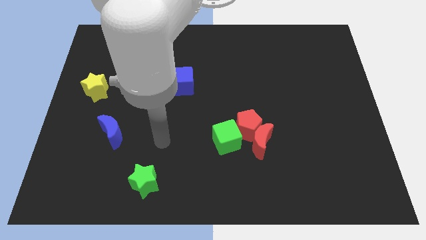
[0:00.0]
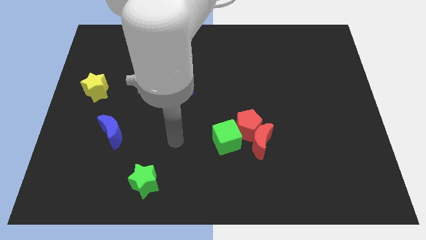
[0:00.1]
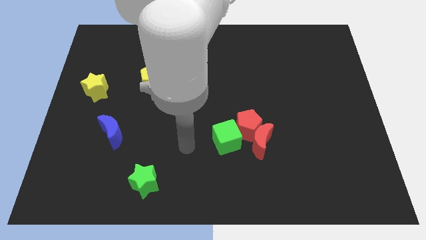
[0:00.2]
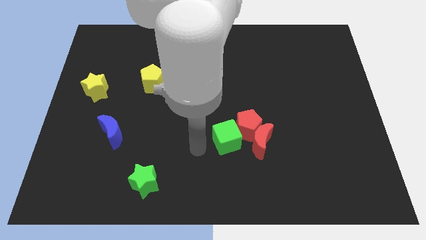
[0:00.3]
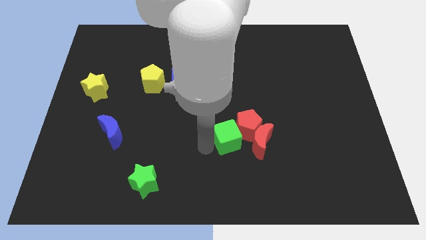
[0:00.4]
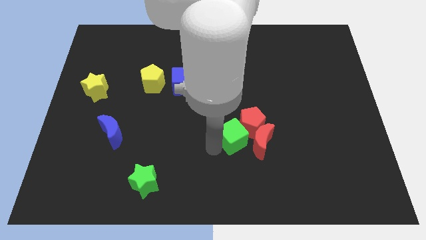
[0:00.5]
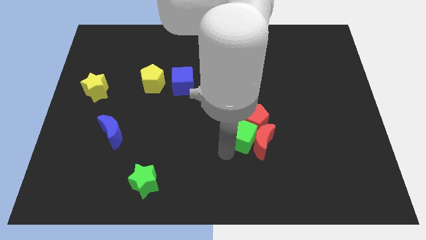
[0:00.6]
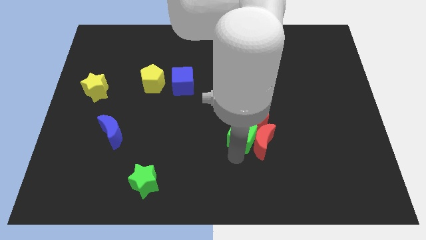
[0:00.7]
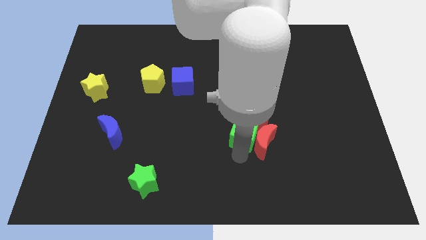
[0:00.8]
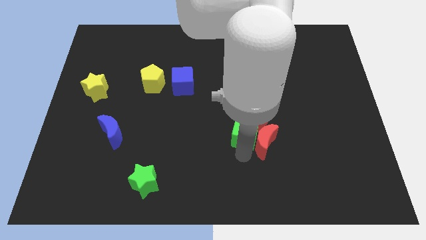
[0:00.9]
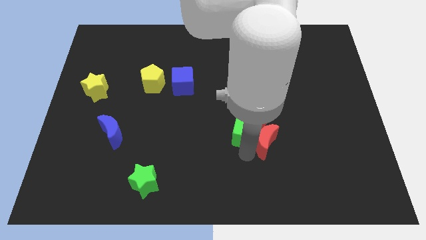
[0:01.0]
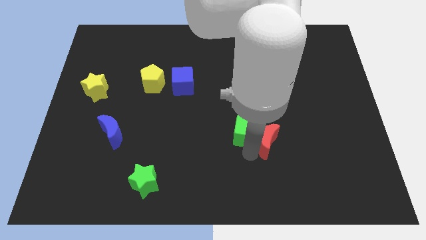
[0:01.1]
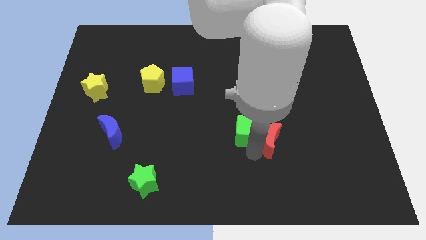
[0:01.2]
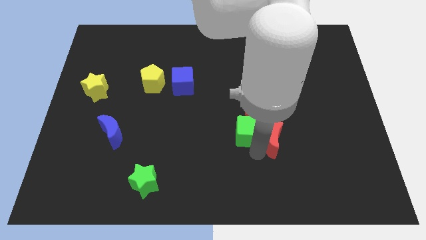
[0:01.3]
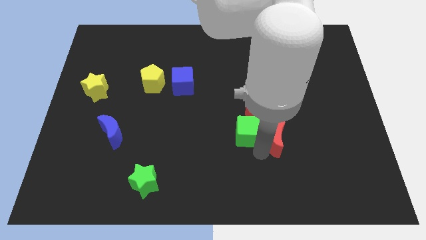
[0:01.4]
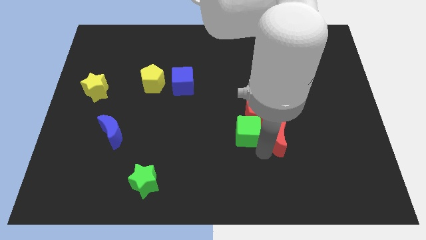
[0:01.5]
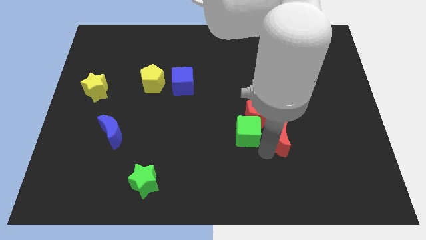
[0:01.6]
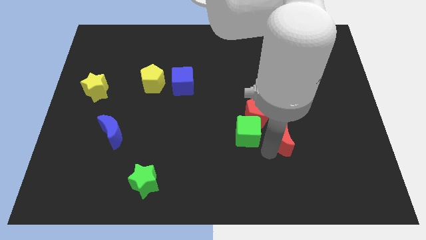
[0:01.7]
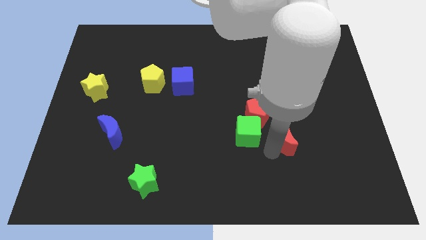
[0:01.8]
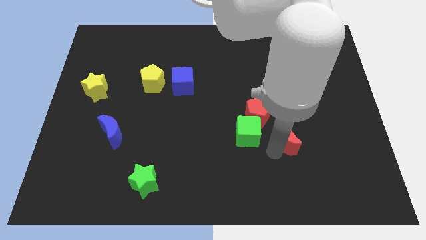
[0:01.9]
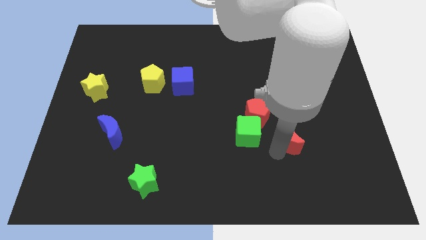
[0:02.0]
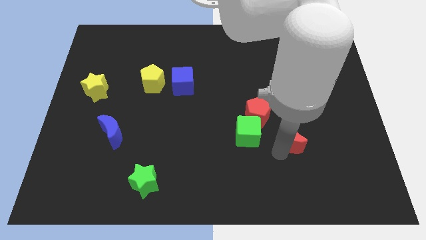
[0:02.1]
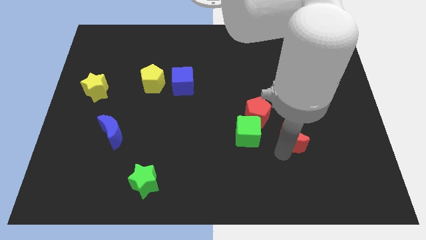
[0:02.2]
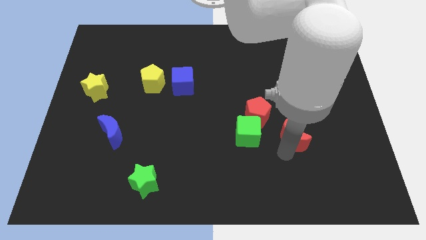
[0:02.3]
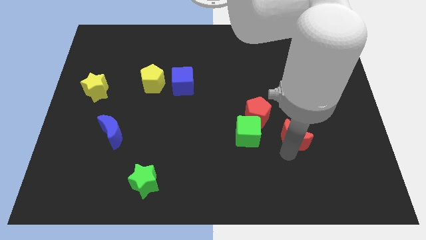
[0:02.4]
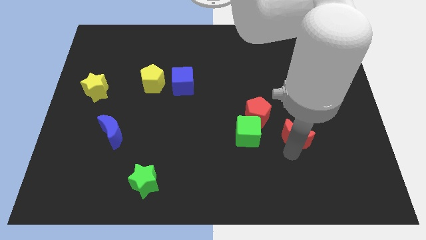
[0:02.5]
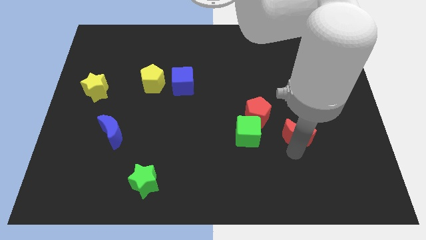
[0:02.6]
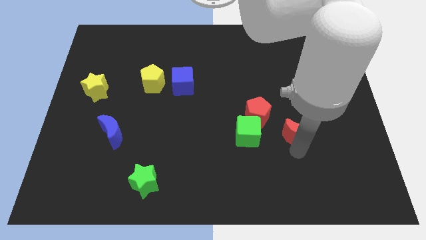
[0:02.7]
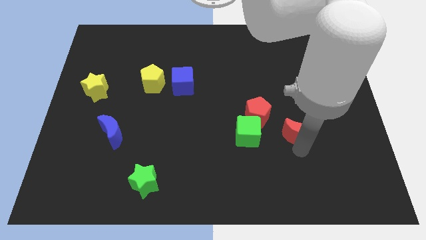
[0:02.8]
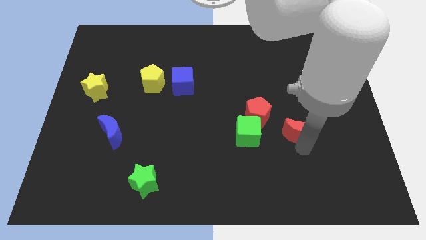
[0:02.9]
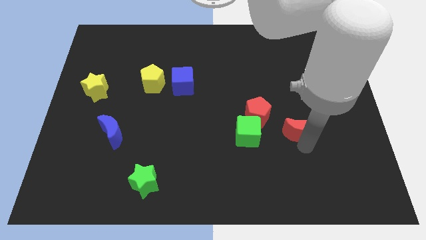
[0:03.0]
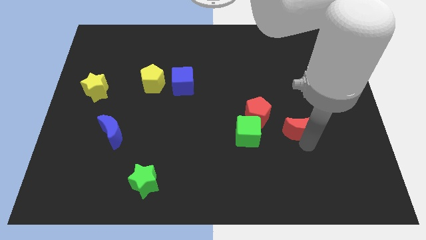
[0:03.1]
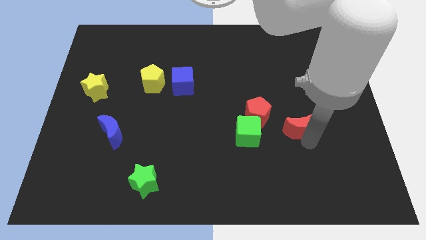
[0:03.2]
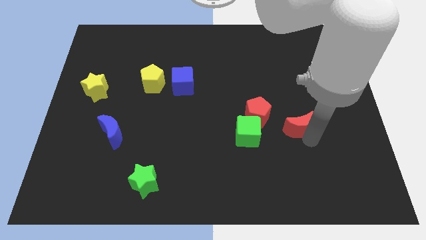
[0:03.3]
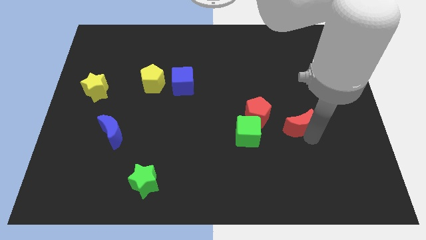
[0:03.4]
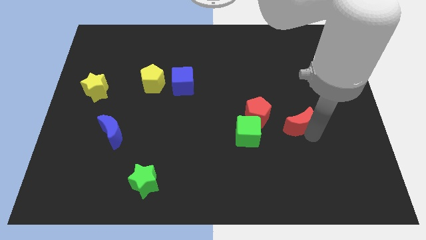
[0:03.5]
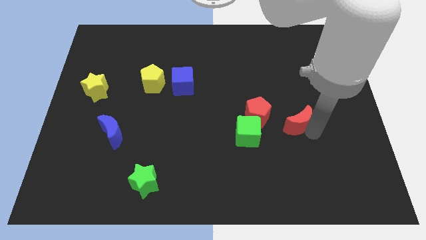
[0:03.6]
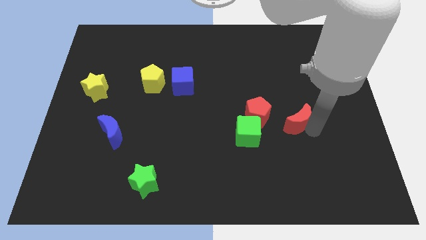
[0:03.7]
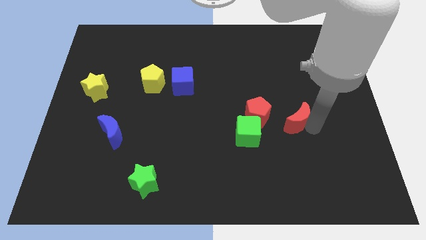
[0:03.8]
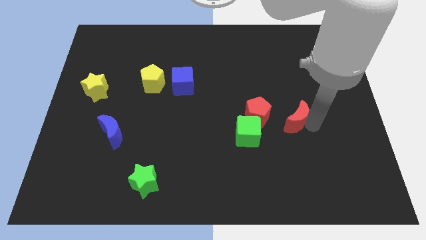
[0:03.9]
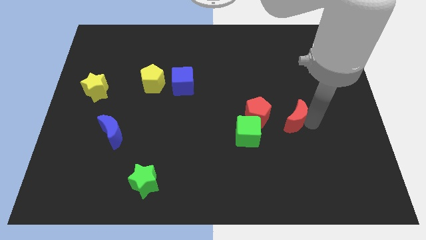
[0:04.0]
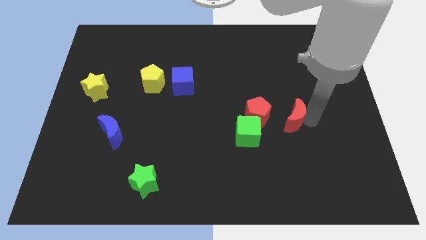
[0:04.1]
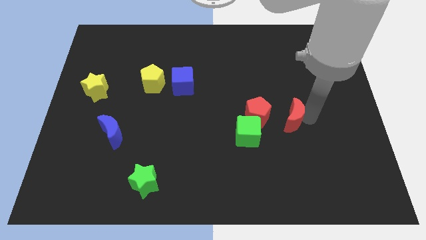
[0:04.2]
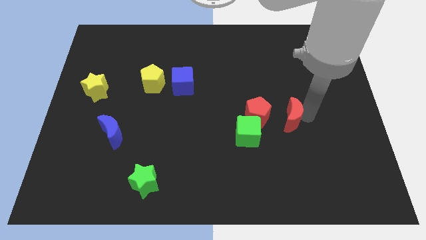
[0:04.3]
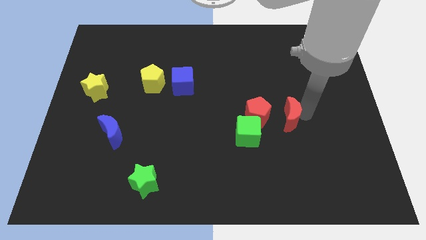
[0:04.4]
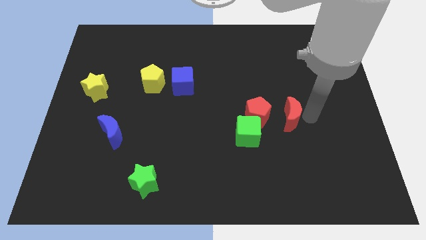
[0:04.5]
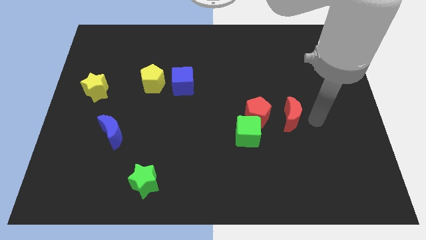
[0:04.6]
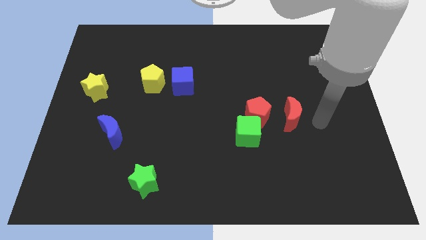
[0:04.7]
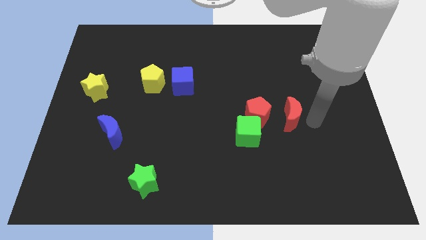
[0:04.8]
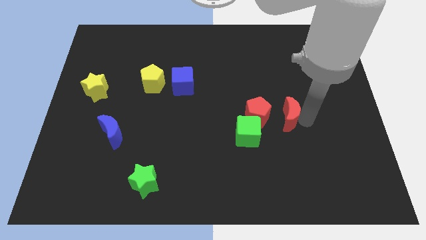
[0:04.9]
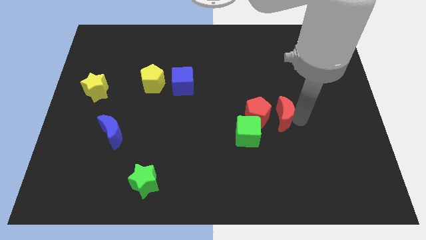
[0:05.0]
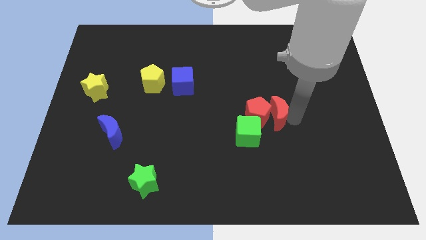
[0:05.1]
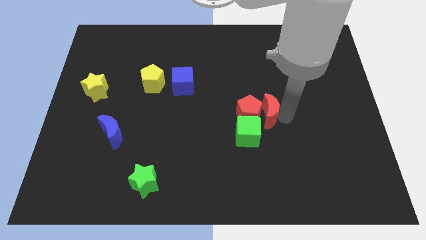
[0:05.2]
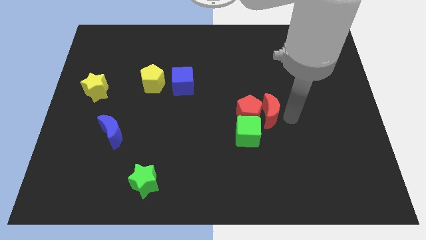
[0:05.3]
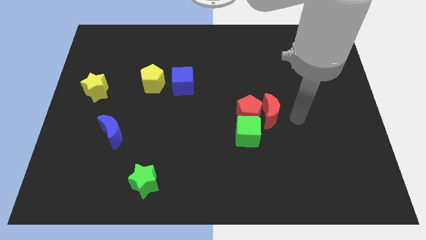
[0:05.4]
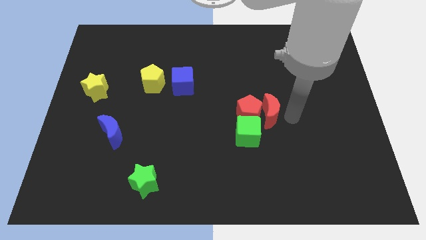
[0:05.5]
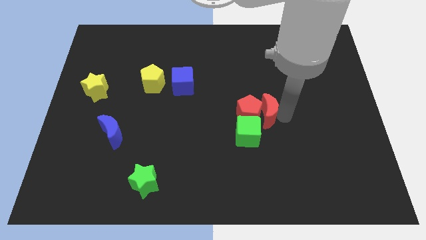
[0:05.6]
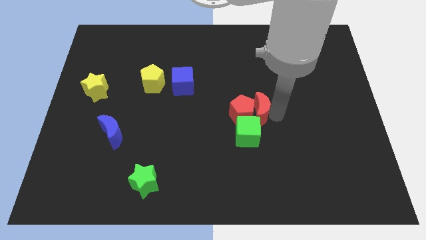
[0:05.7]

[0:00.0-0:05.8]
move the red moon to the center of the board

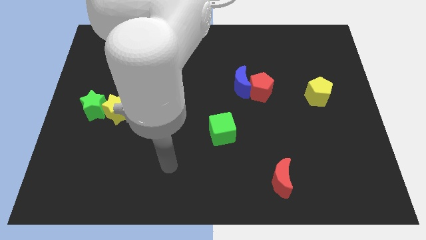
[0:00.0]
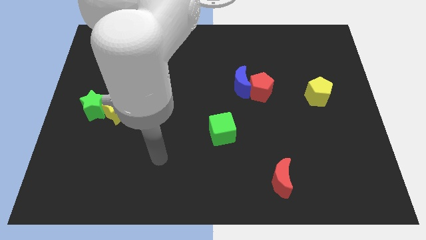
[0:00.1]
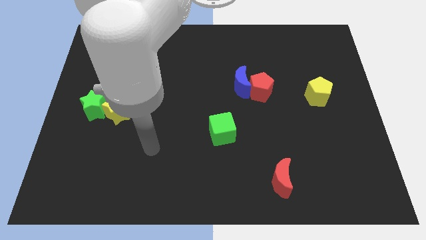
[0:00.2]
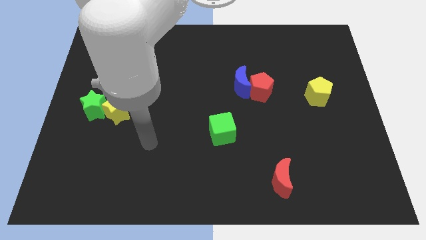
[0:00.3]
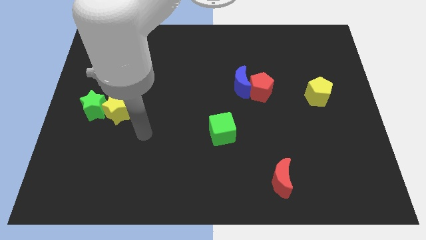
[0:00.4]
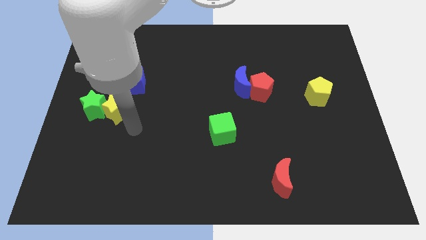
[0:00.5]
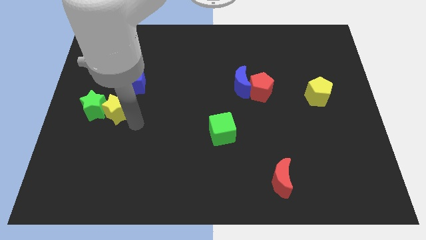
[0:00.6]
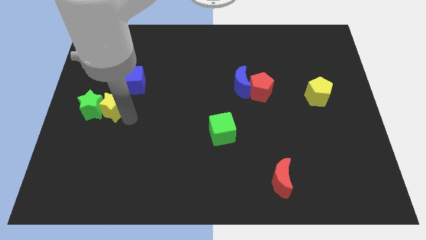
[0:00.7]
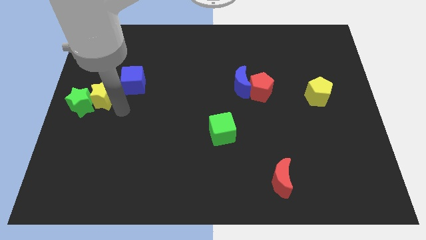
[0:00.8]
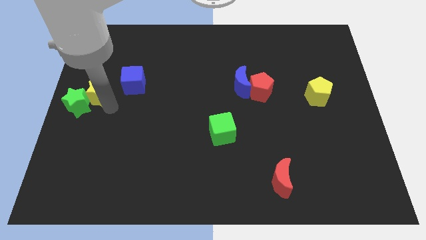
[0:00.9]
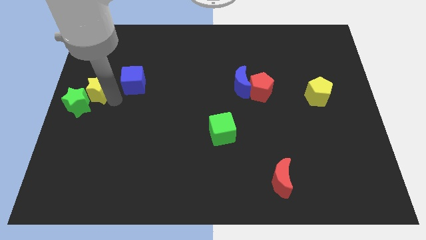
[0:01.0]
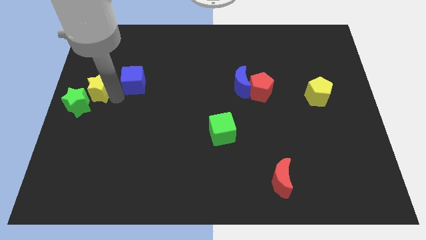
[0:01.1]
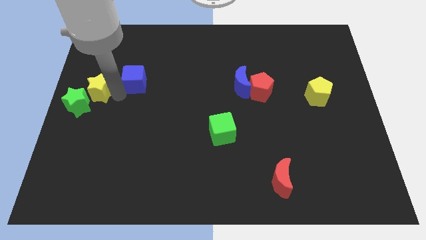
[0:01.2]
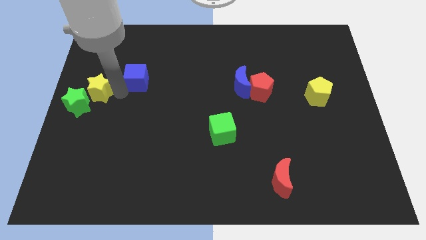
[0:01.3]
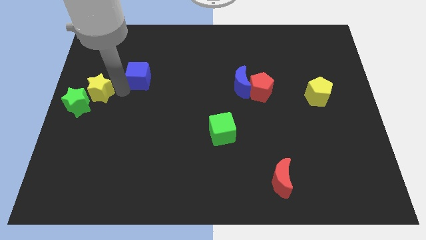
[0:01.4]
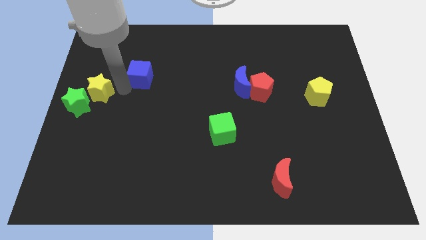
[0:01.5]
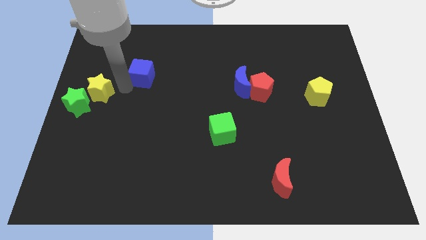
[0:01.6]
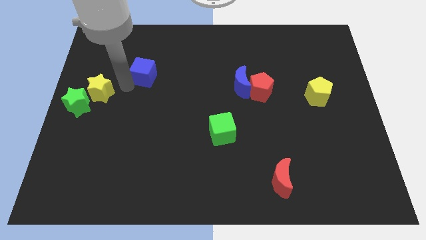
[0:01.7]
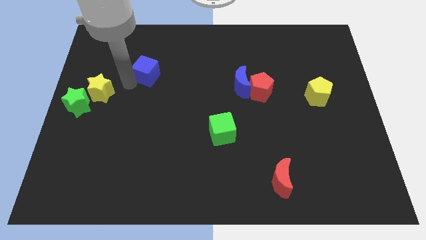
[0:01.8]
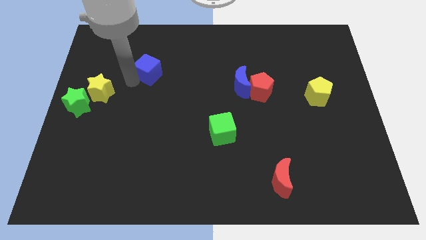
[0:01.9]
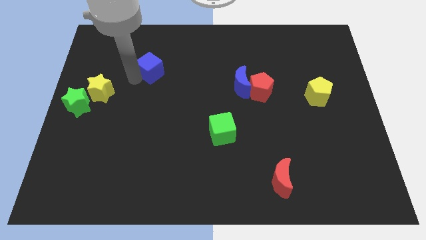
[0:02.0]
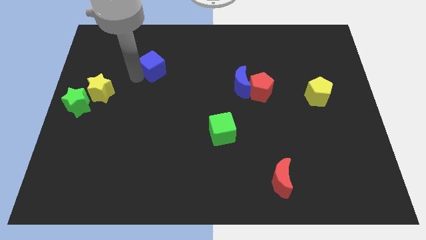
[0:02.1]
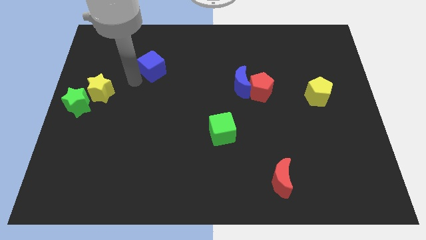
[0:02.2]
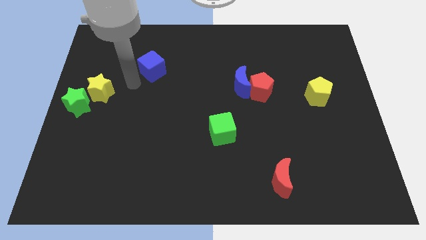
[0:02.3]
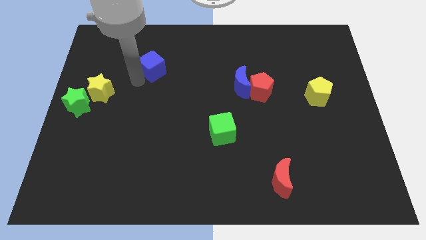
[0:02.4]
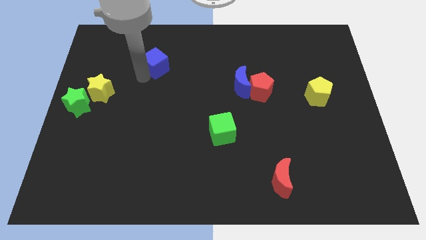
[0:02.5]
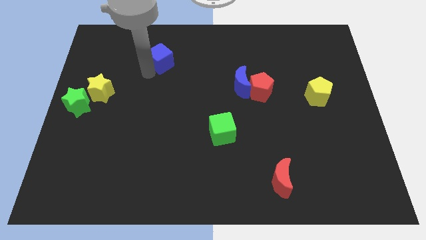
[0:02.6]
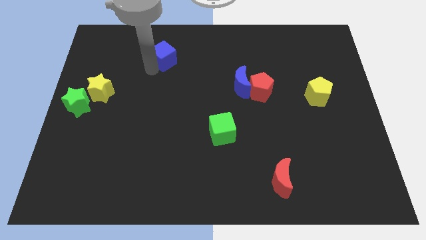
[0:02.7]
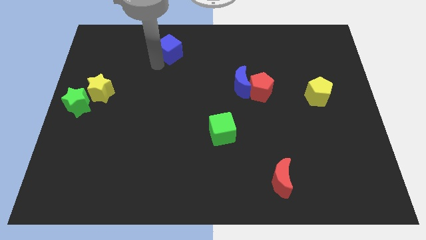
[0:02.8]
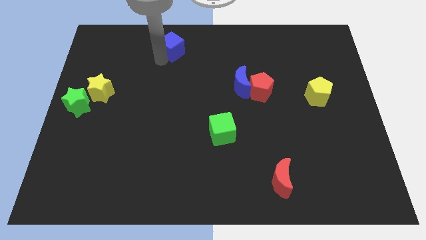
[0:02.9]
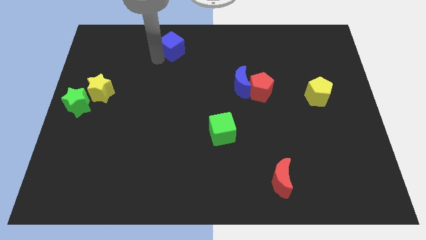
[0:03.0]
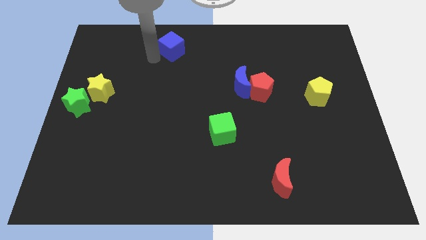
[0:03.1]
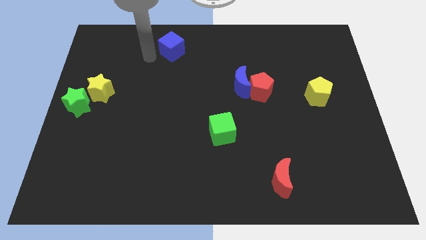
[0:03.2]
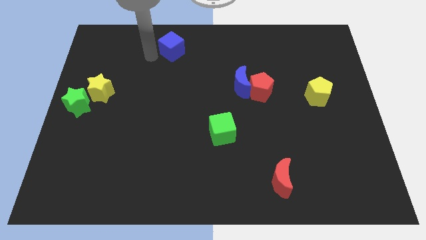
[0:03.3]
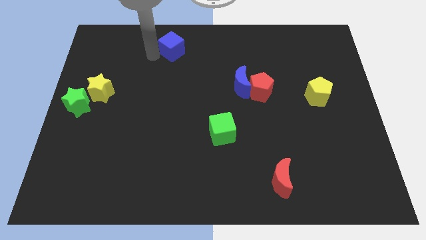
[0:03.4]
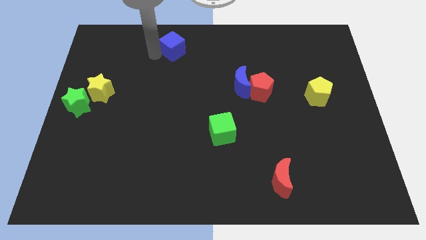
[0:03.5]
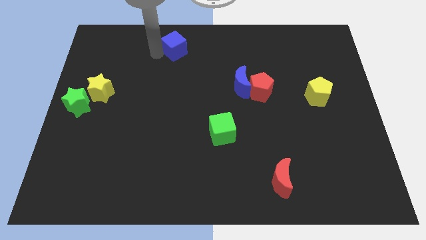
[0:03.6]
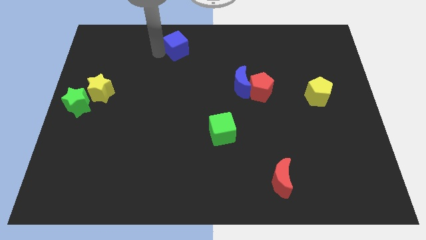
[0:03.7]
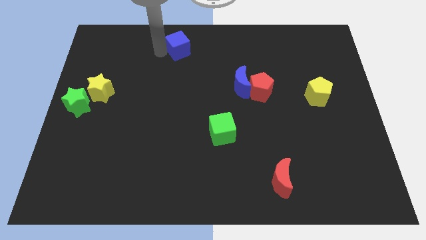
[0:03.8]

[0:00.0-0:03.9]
put the blue cube to the top
